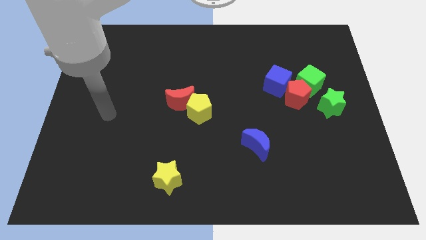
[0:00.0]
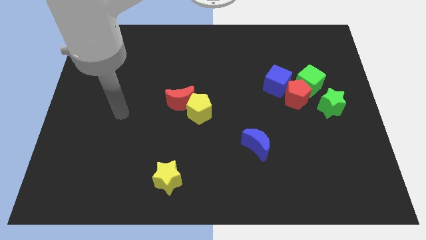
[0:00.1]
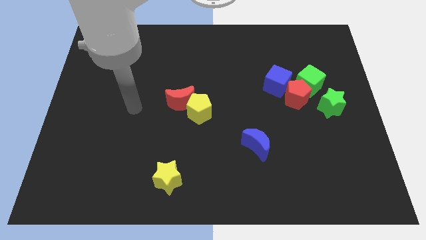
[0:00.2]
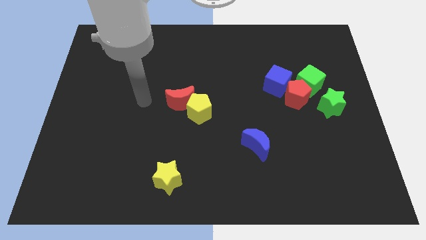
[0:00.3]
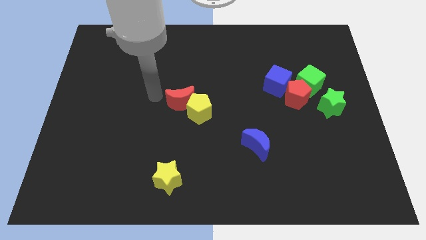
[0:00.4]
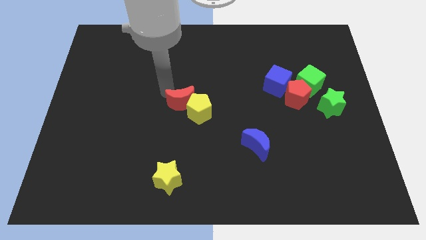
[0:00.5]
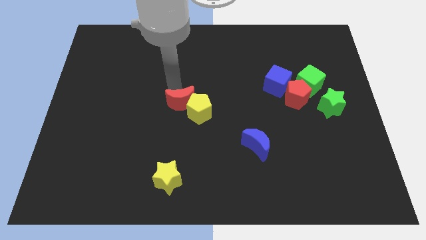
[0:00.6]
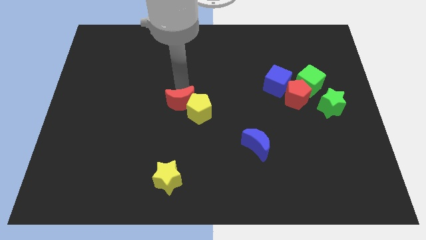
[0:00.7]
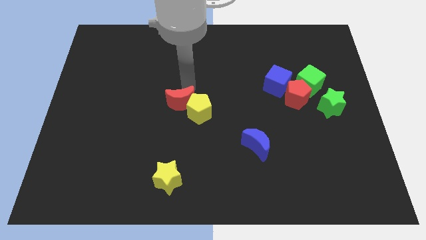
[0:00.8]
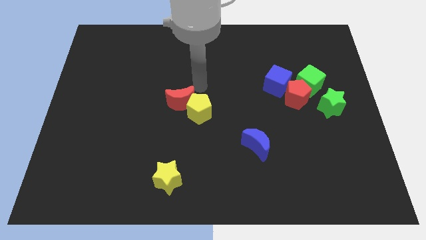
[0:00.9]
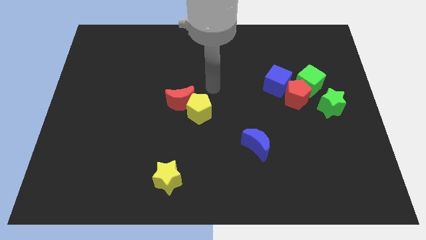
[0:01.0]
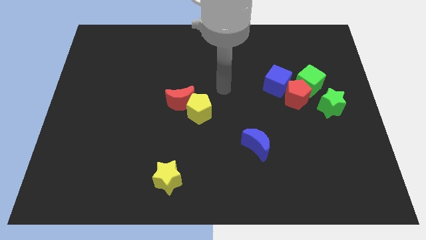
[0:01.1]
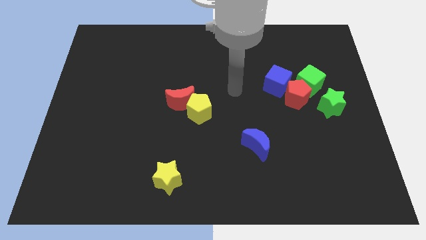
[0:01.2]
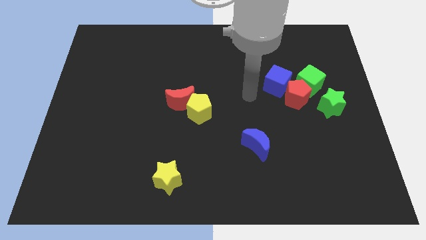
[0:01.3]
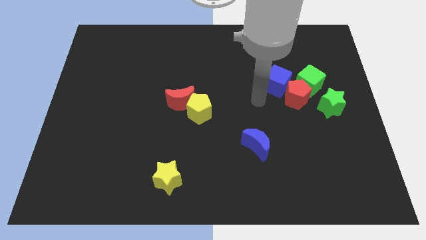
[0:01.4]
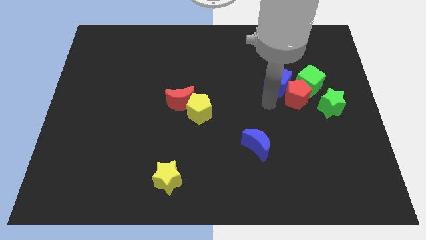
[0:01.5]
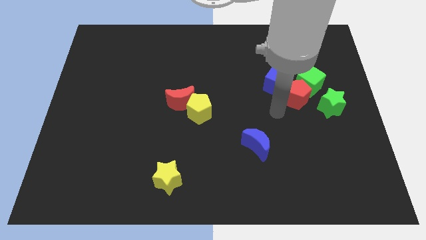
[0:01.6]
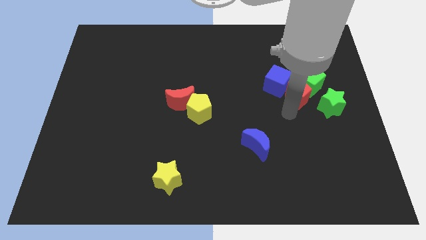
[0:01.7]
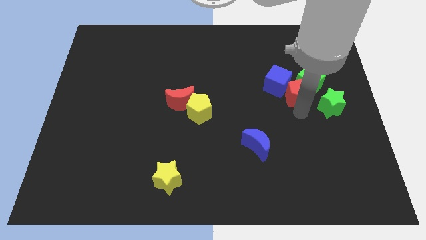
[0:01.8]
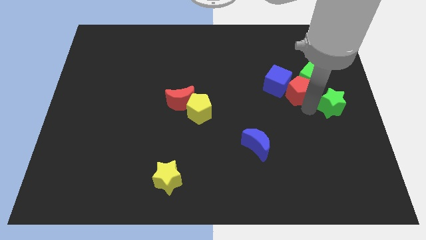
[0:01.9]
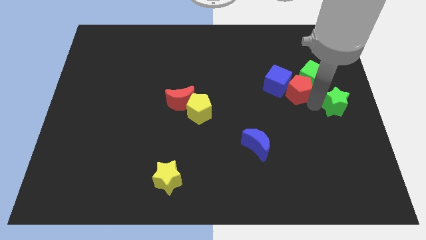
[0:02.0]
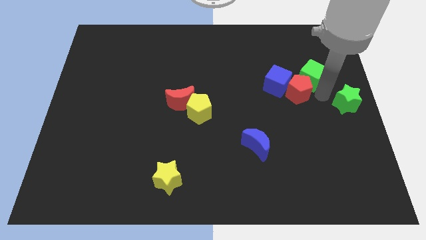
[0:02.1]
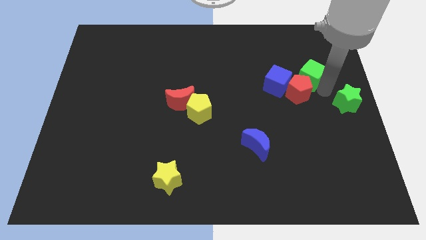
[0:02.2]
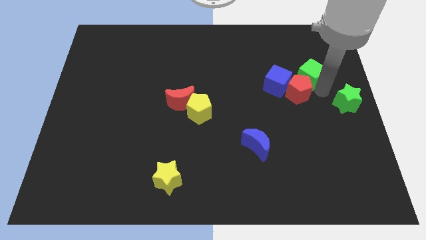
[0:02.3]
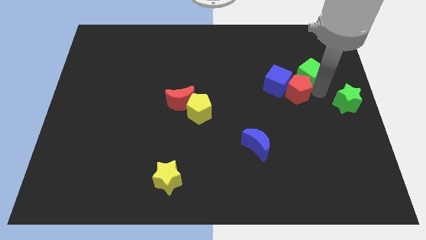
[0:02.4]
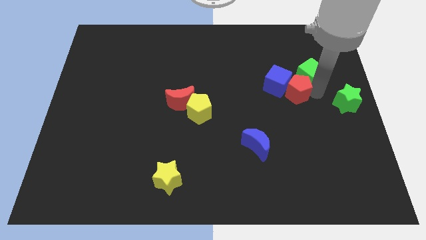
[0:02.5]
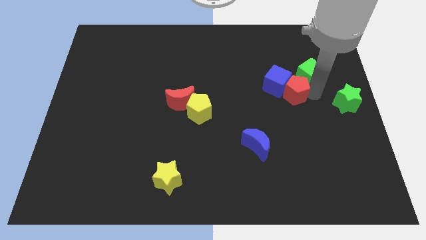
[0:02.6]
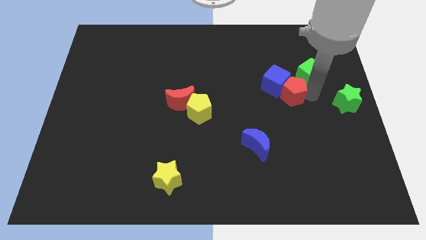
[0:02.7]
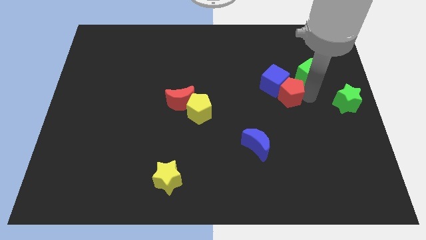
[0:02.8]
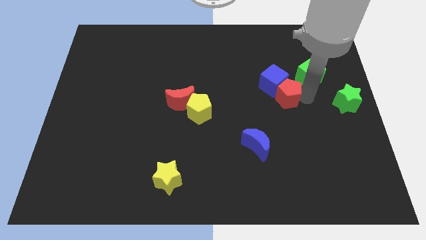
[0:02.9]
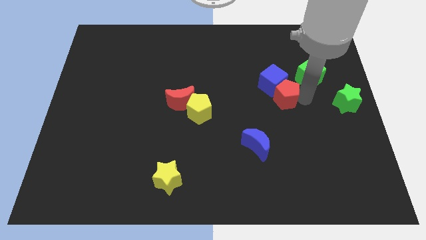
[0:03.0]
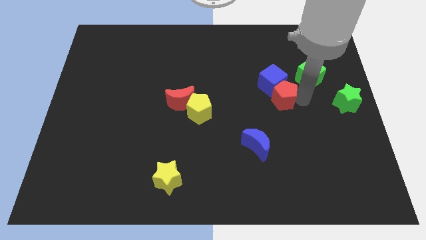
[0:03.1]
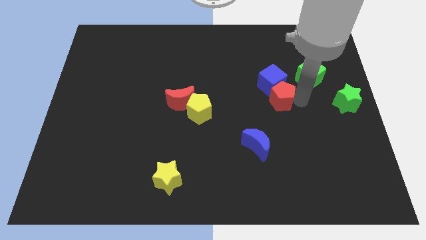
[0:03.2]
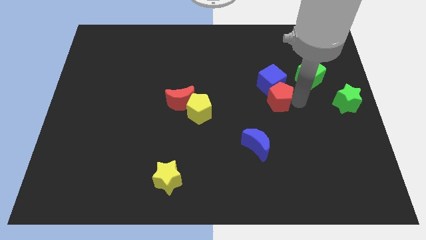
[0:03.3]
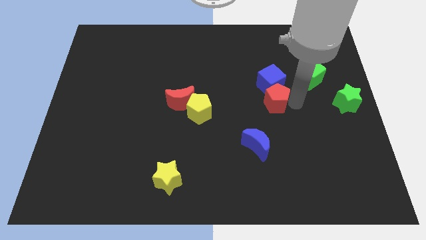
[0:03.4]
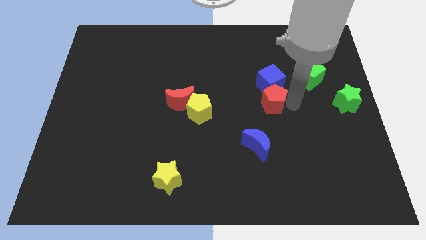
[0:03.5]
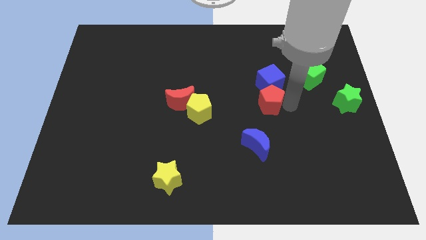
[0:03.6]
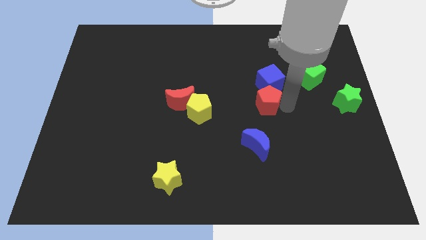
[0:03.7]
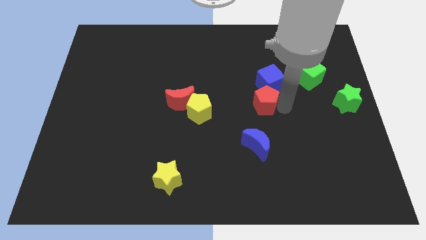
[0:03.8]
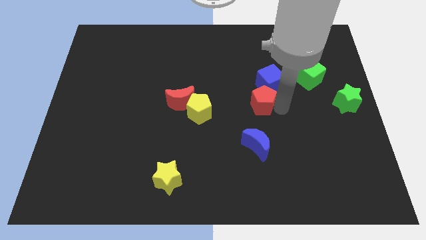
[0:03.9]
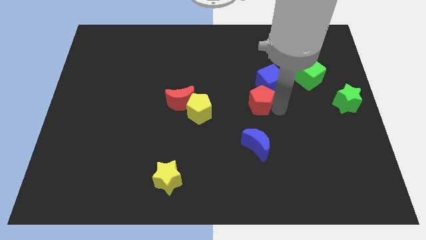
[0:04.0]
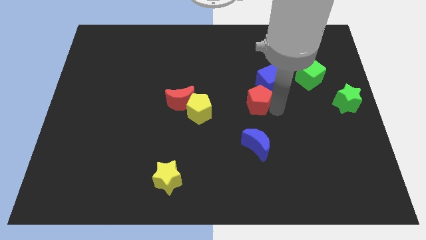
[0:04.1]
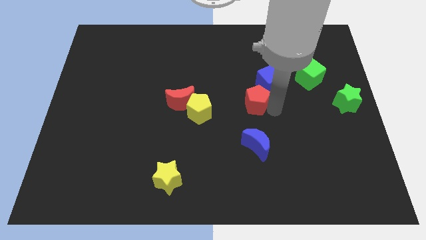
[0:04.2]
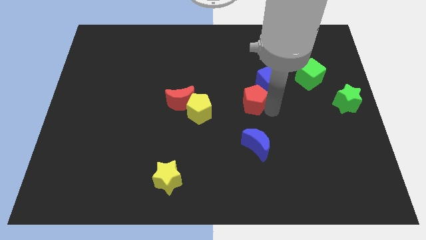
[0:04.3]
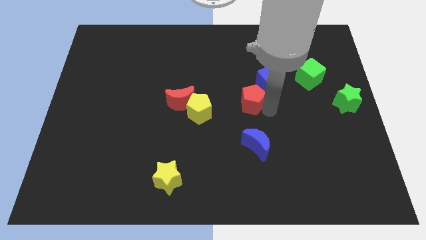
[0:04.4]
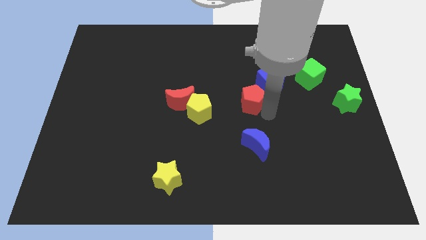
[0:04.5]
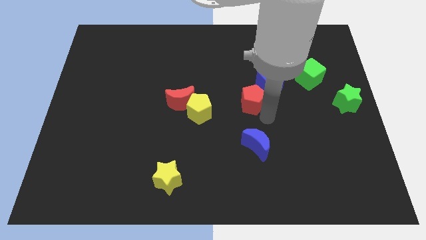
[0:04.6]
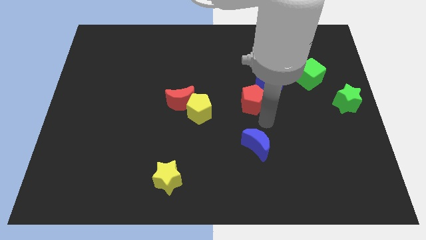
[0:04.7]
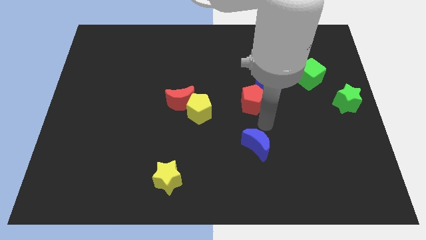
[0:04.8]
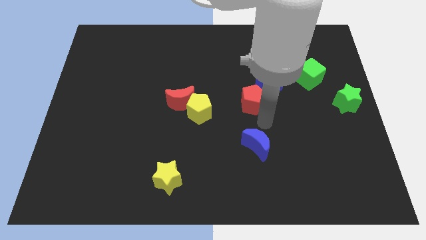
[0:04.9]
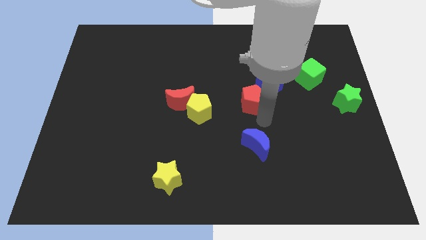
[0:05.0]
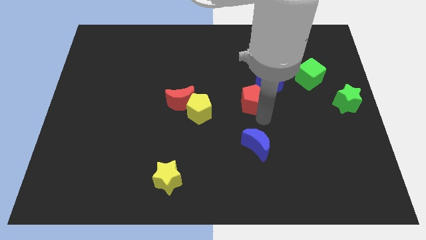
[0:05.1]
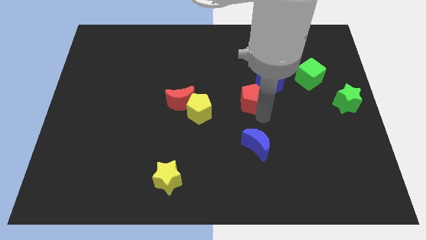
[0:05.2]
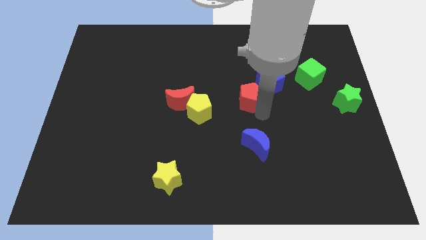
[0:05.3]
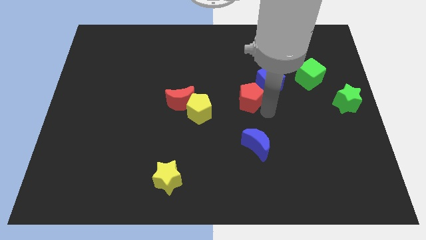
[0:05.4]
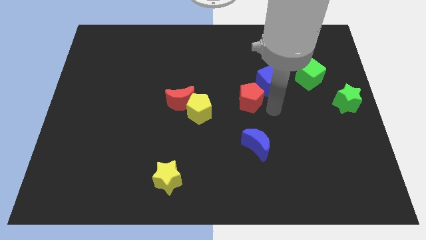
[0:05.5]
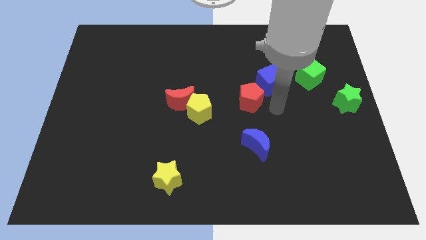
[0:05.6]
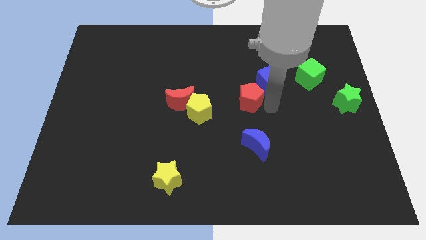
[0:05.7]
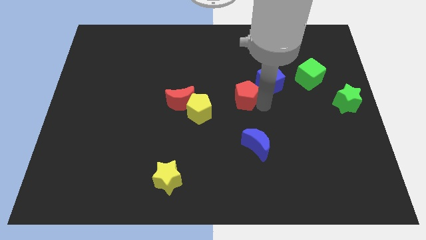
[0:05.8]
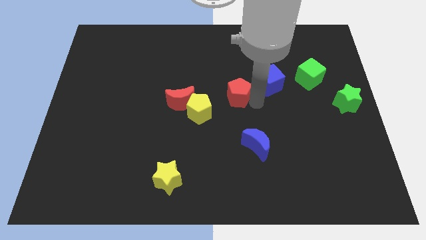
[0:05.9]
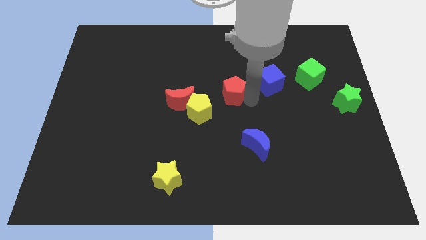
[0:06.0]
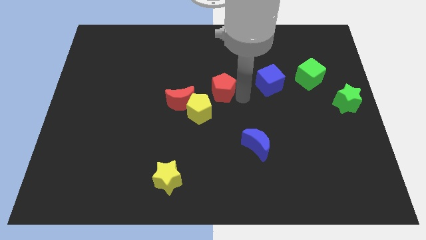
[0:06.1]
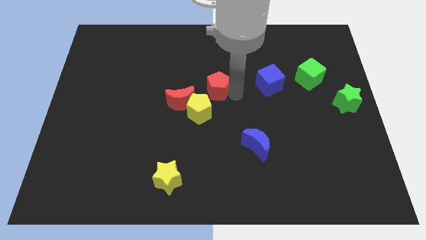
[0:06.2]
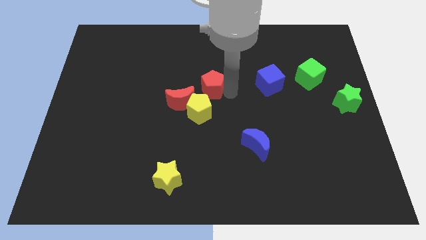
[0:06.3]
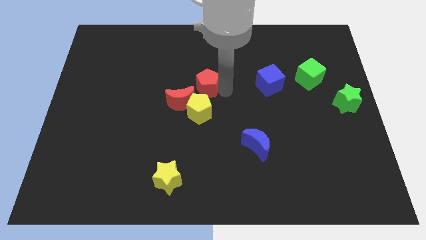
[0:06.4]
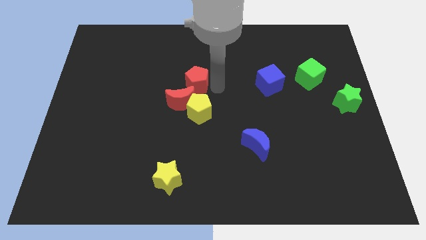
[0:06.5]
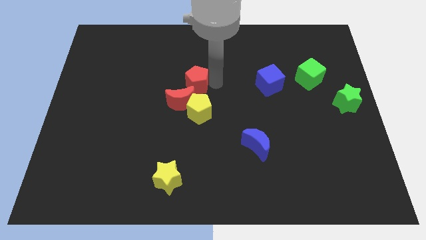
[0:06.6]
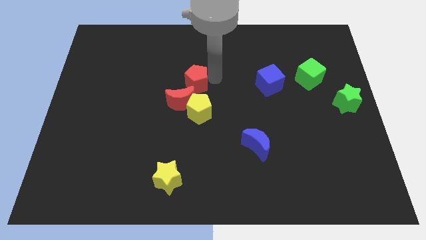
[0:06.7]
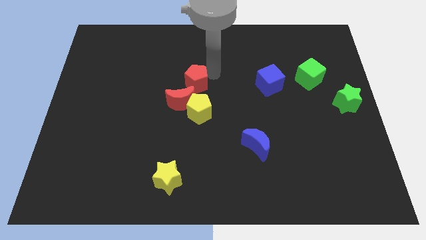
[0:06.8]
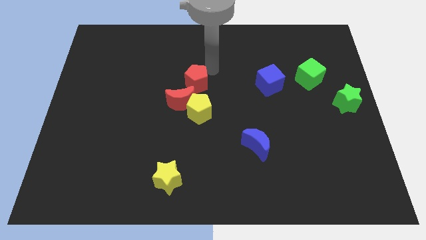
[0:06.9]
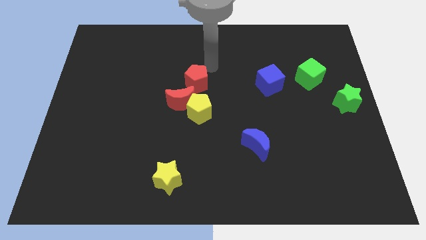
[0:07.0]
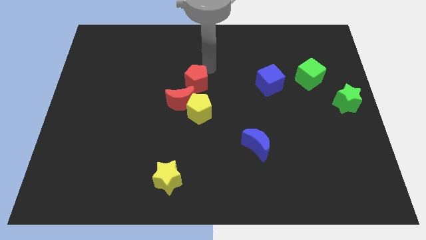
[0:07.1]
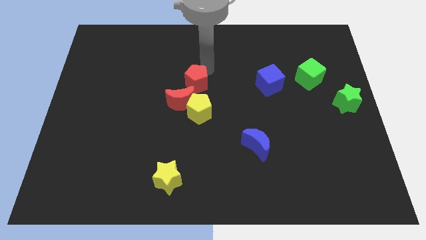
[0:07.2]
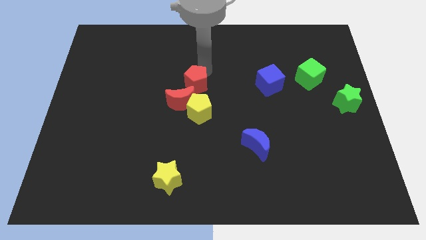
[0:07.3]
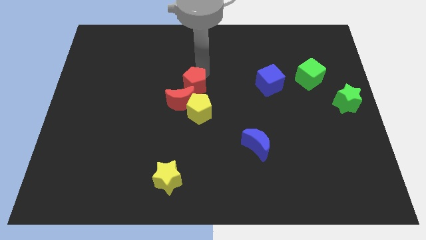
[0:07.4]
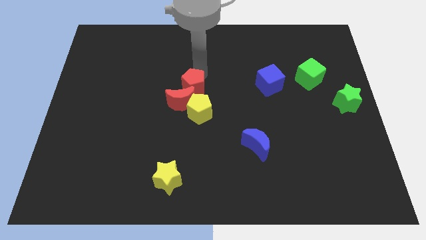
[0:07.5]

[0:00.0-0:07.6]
move the red pentagon towards the red moon
